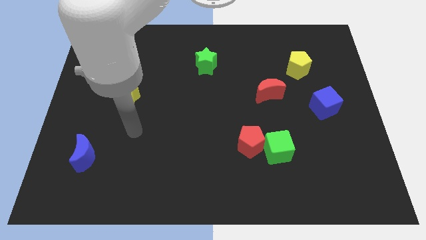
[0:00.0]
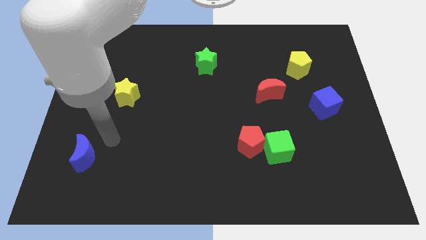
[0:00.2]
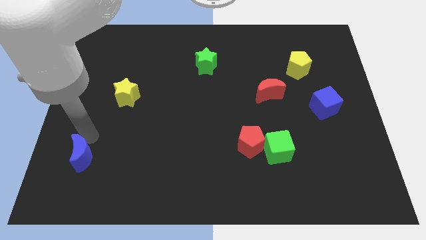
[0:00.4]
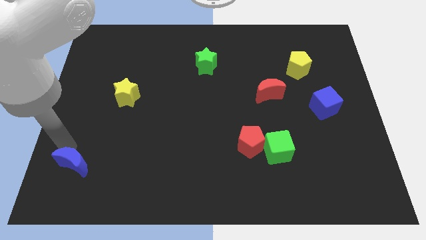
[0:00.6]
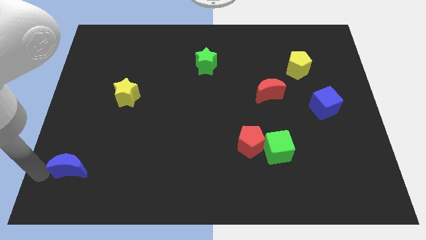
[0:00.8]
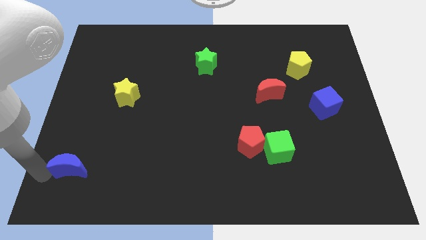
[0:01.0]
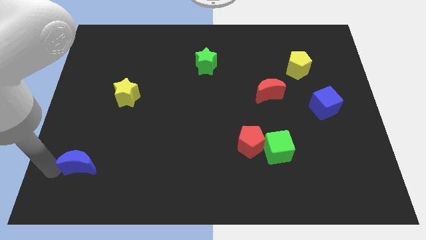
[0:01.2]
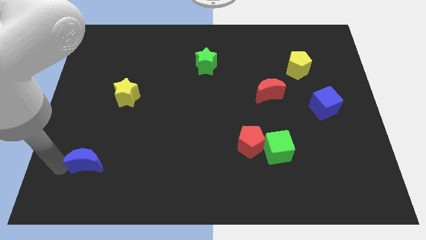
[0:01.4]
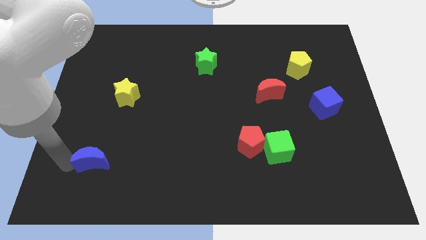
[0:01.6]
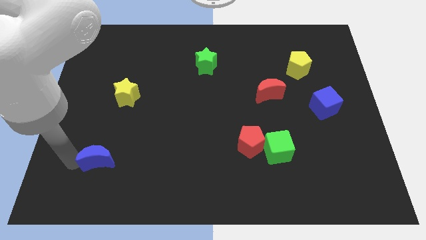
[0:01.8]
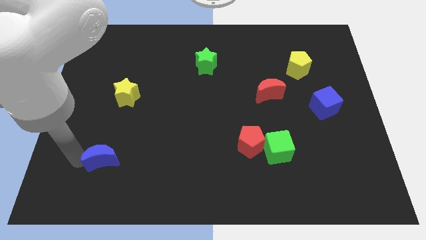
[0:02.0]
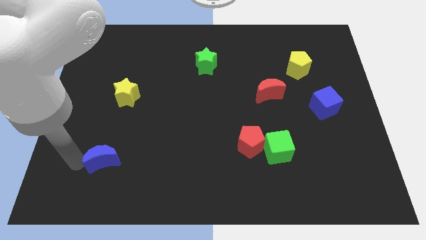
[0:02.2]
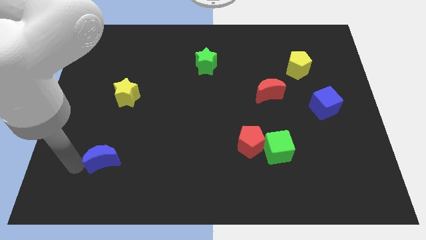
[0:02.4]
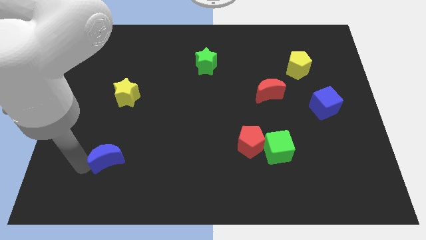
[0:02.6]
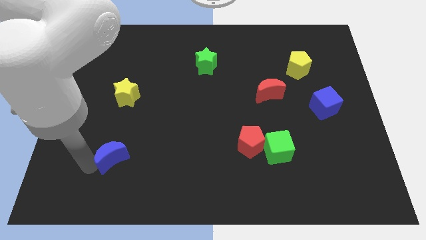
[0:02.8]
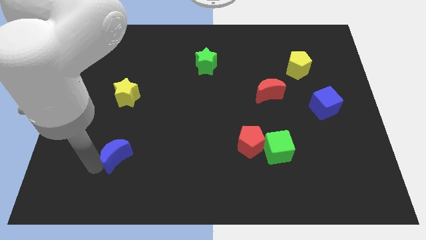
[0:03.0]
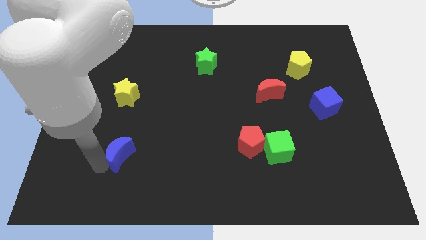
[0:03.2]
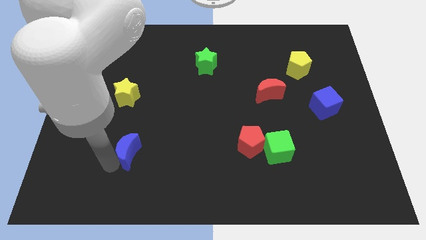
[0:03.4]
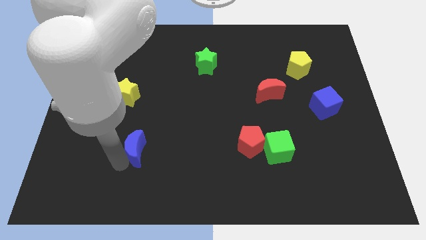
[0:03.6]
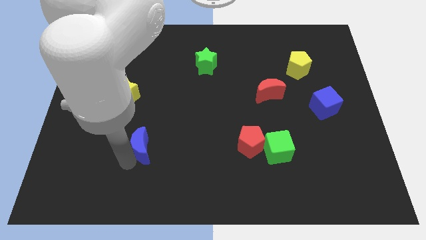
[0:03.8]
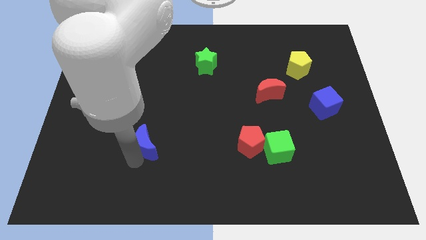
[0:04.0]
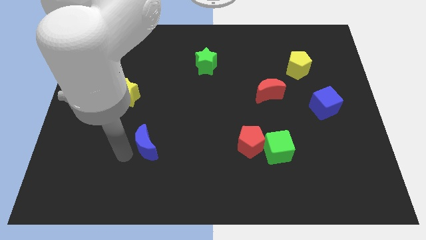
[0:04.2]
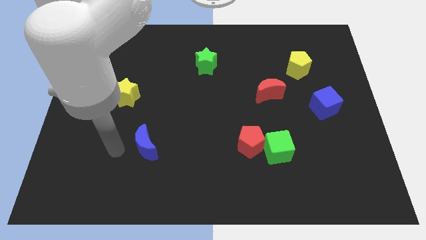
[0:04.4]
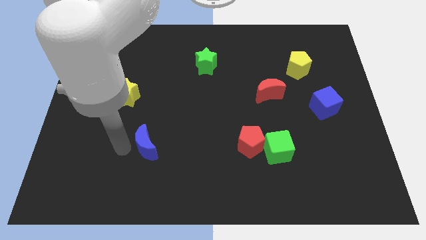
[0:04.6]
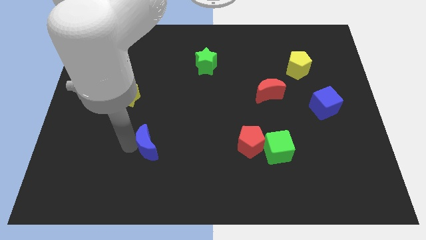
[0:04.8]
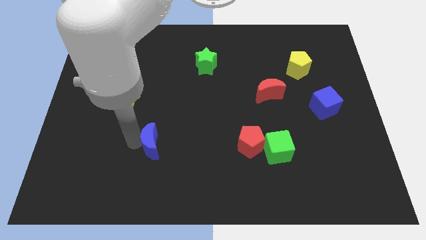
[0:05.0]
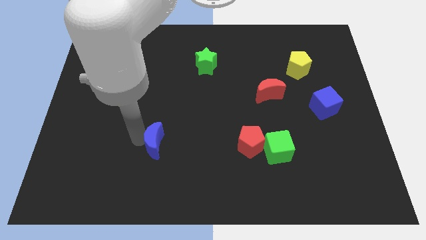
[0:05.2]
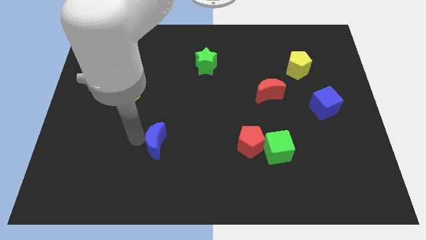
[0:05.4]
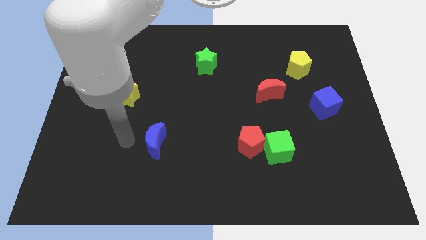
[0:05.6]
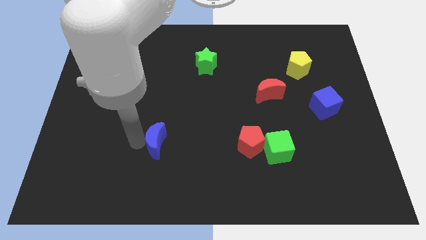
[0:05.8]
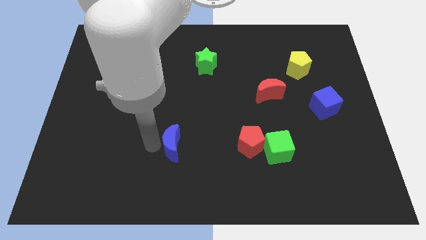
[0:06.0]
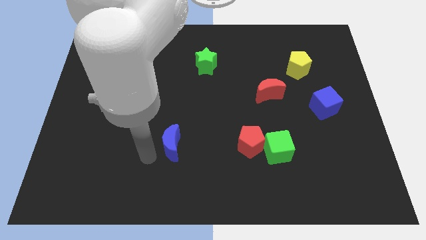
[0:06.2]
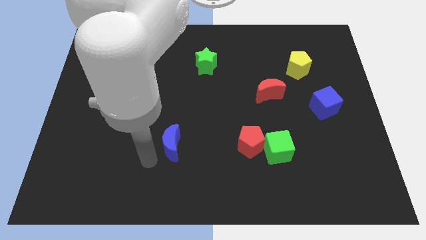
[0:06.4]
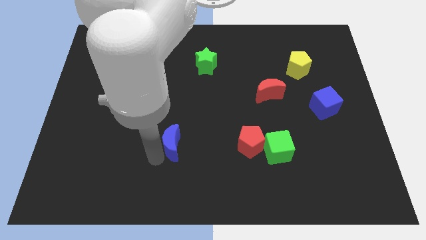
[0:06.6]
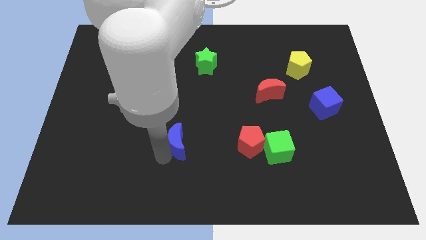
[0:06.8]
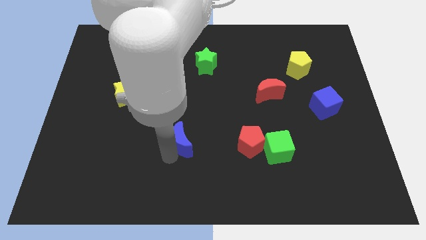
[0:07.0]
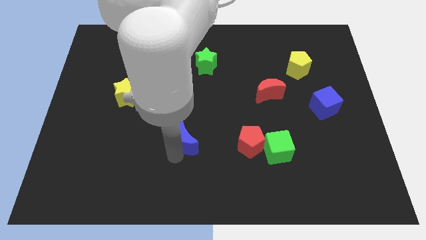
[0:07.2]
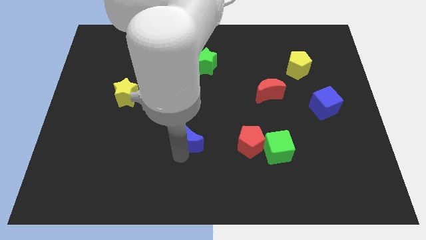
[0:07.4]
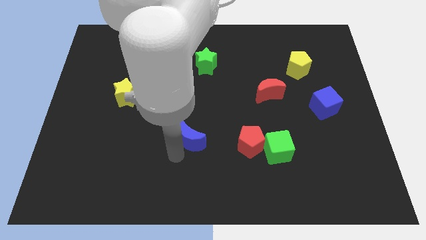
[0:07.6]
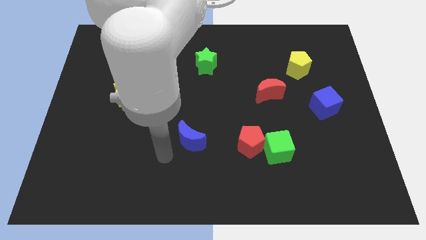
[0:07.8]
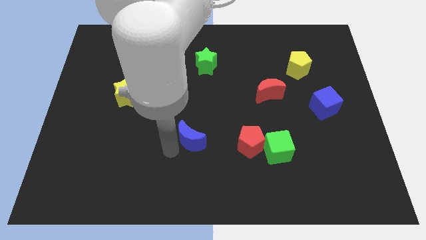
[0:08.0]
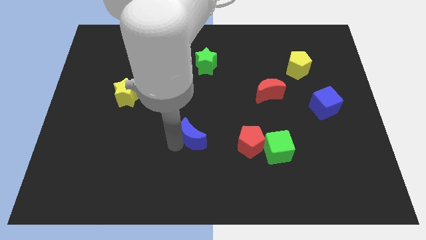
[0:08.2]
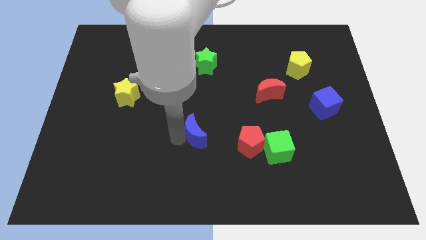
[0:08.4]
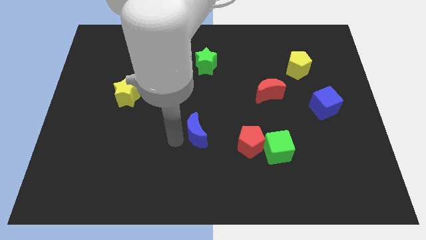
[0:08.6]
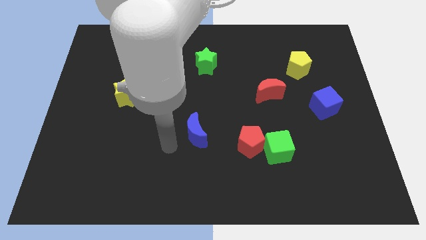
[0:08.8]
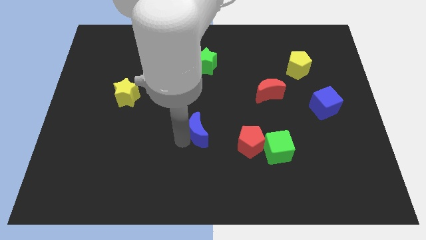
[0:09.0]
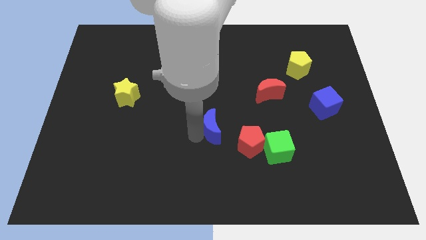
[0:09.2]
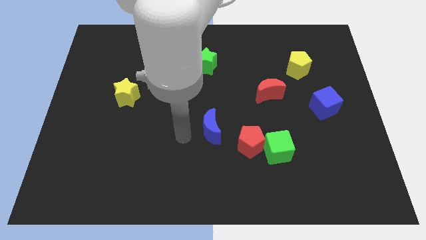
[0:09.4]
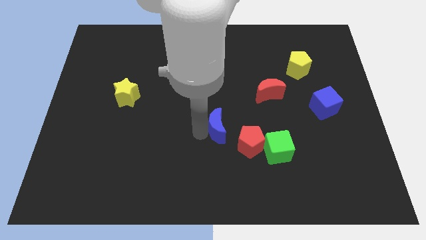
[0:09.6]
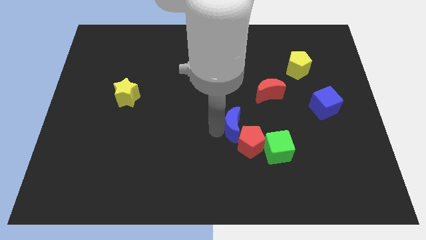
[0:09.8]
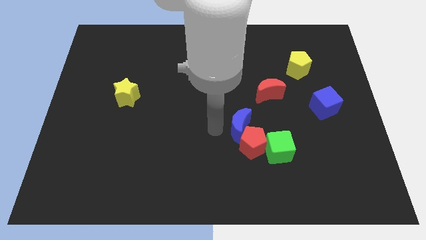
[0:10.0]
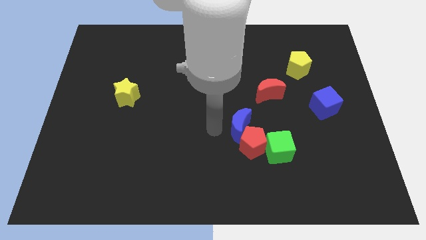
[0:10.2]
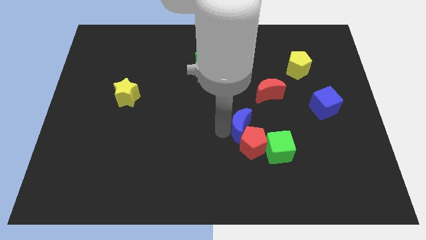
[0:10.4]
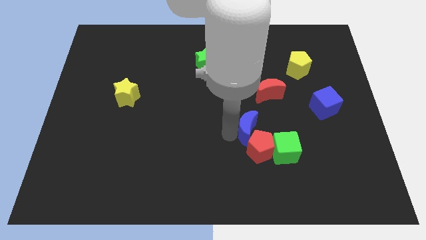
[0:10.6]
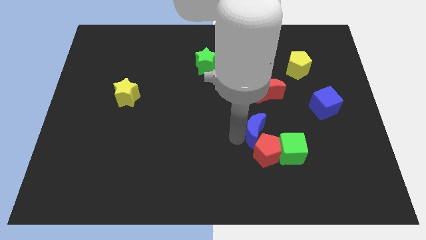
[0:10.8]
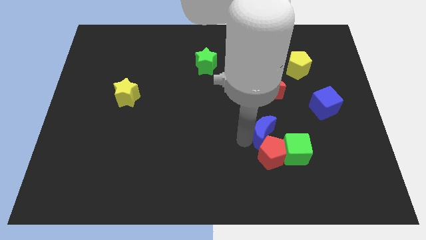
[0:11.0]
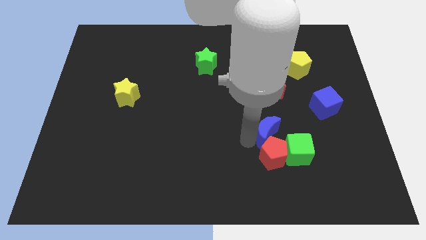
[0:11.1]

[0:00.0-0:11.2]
push the blue moon diagonally up and to the right of the red pentagon

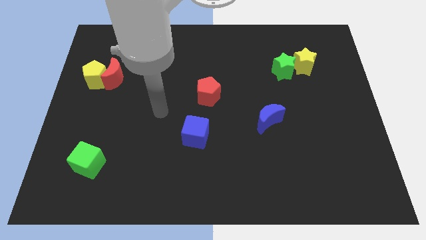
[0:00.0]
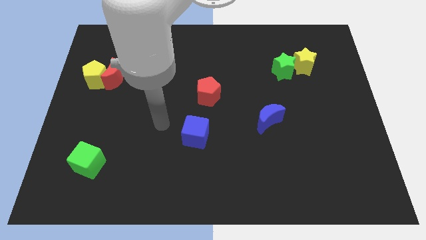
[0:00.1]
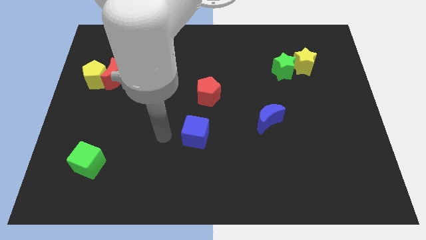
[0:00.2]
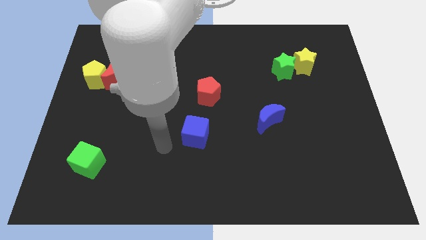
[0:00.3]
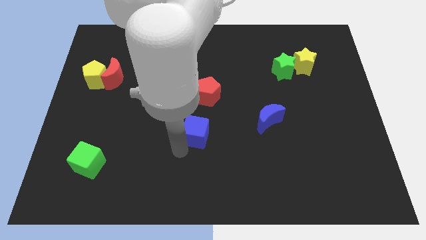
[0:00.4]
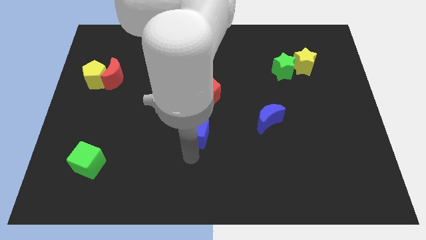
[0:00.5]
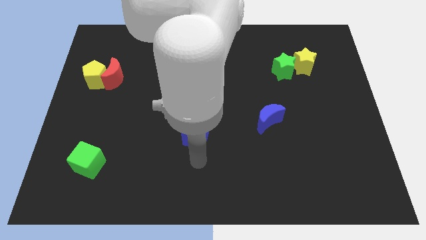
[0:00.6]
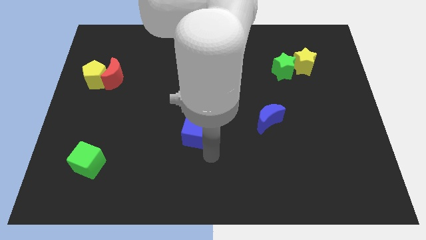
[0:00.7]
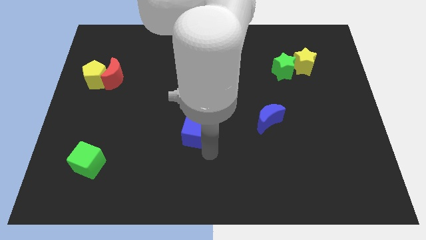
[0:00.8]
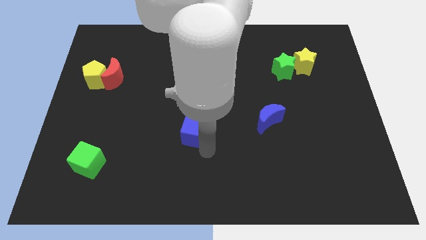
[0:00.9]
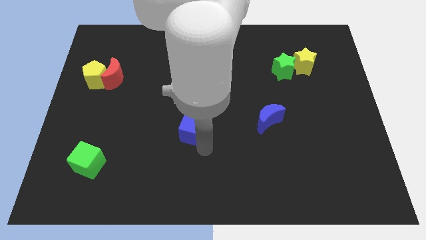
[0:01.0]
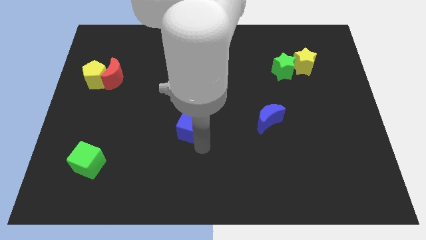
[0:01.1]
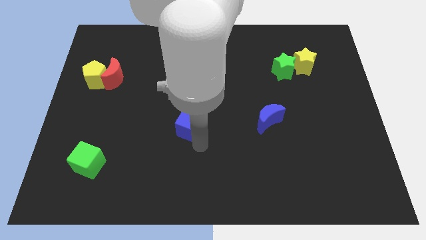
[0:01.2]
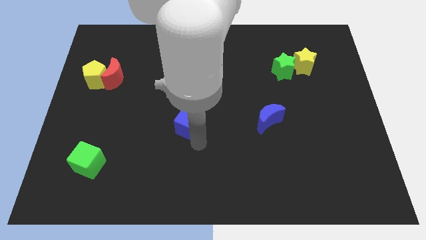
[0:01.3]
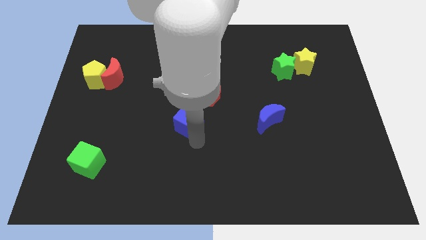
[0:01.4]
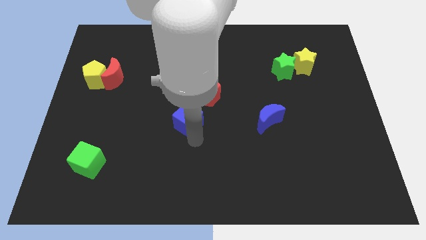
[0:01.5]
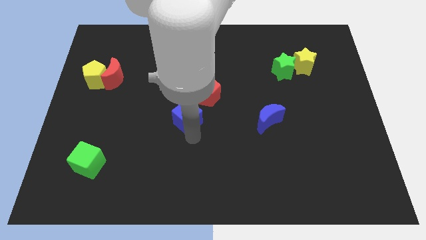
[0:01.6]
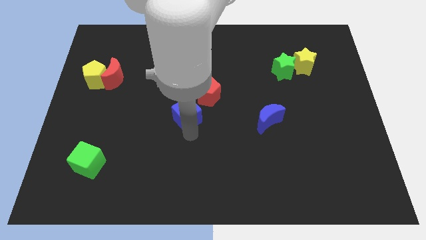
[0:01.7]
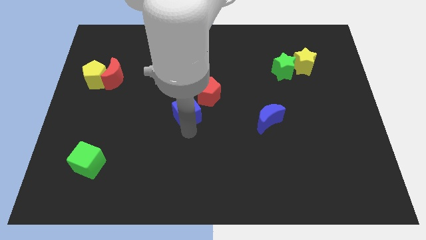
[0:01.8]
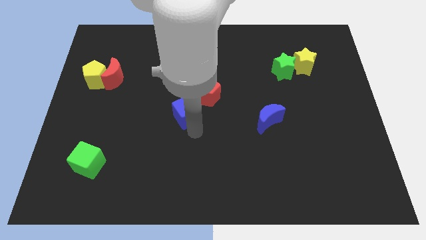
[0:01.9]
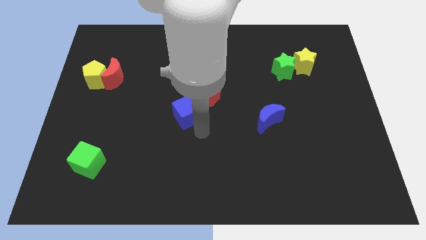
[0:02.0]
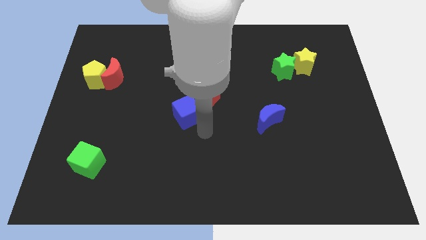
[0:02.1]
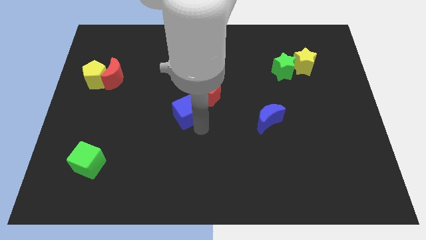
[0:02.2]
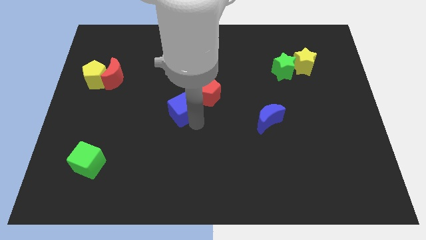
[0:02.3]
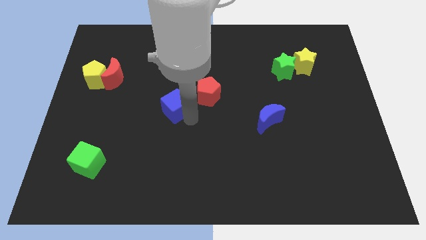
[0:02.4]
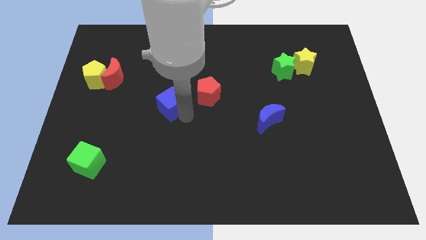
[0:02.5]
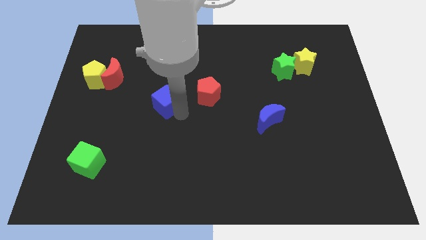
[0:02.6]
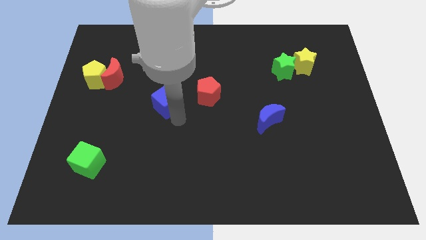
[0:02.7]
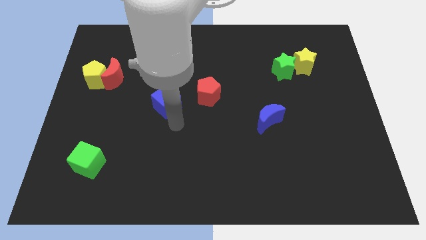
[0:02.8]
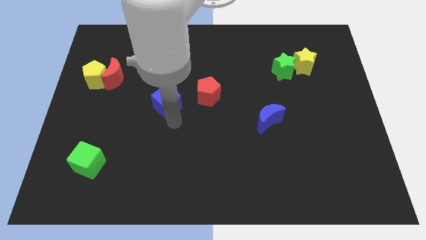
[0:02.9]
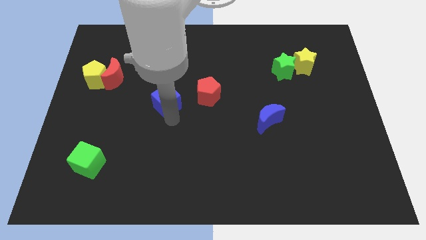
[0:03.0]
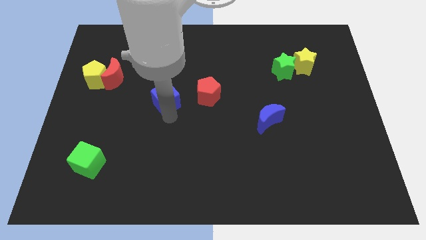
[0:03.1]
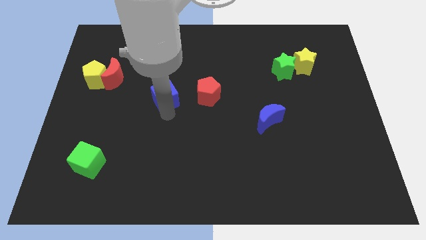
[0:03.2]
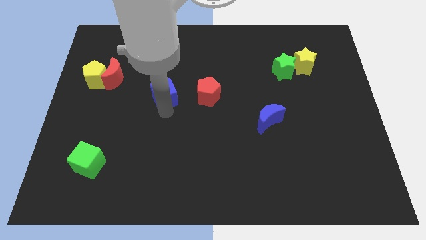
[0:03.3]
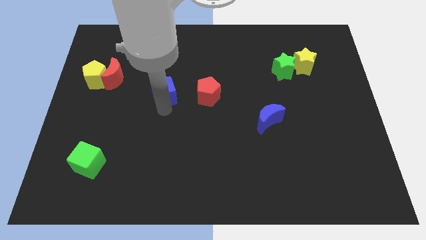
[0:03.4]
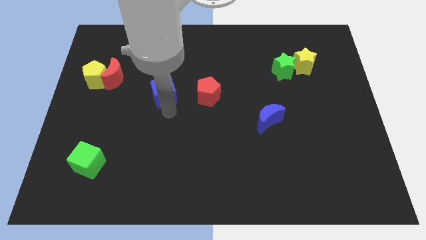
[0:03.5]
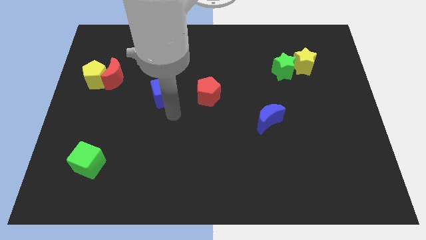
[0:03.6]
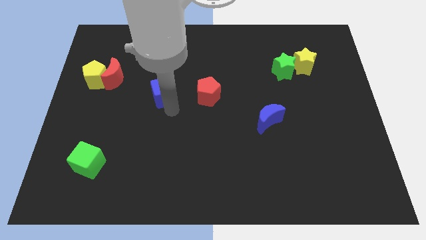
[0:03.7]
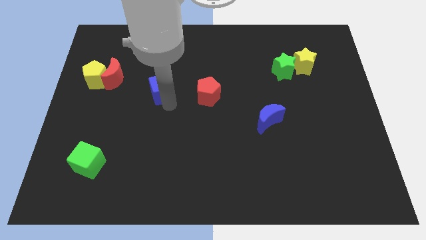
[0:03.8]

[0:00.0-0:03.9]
put the blue cube to the right side of the red moon
